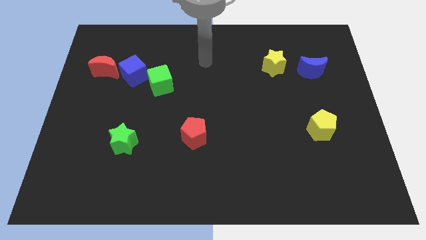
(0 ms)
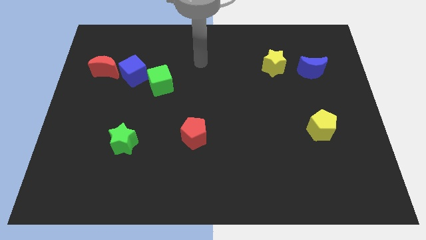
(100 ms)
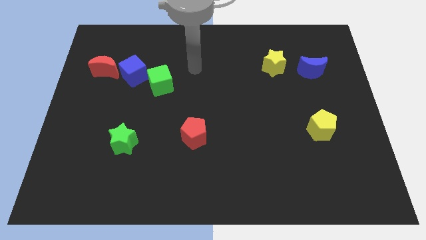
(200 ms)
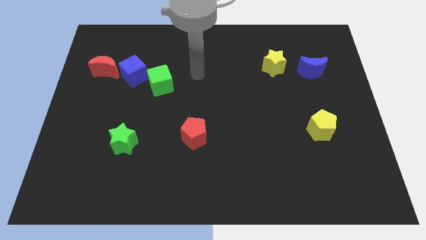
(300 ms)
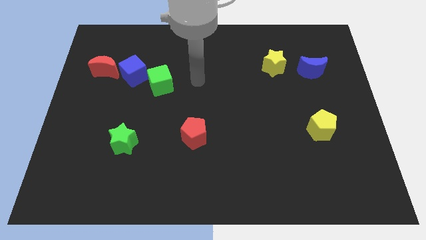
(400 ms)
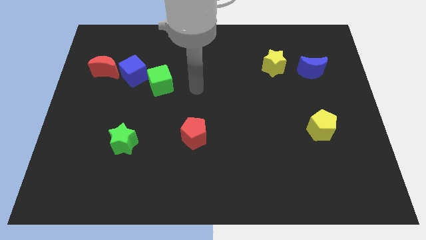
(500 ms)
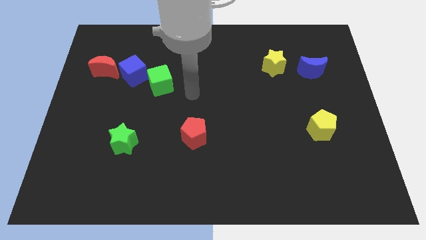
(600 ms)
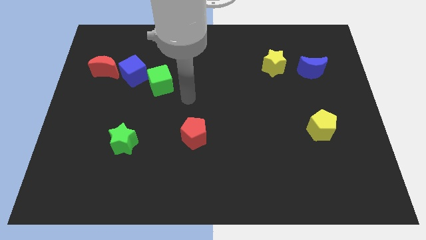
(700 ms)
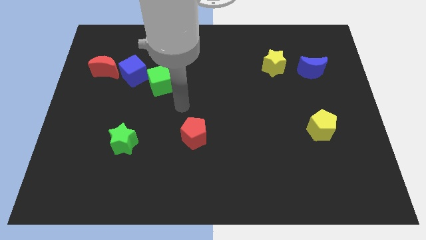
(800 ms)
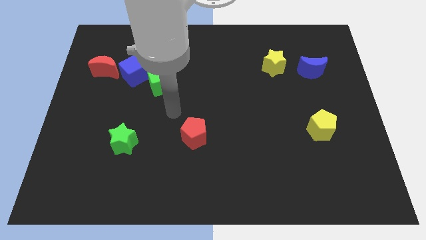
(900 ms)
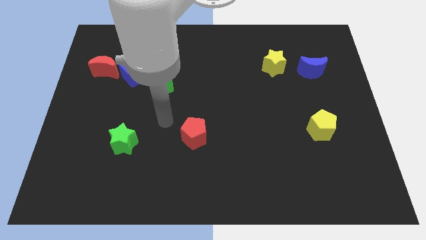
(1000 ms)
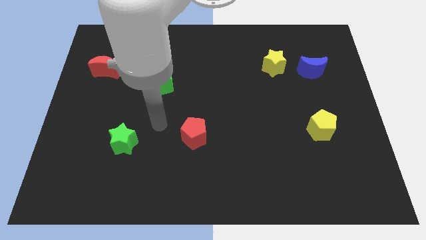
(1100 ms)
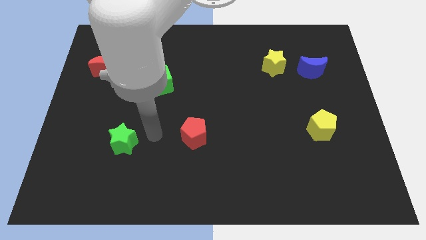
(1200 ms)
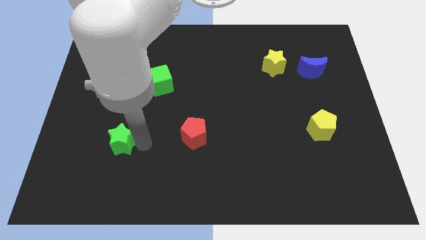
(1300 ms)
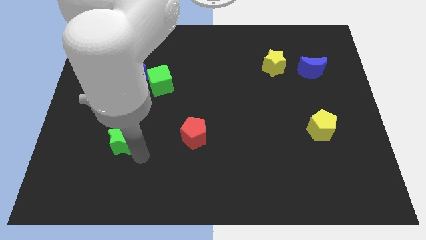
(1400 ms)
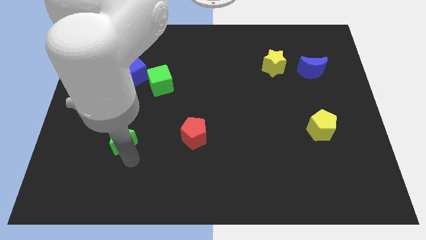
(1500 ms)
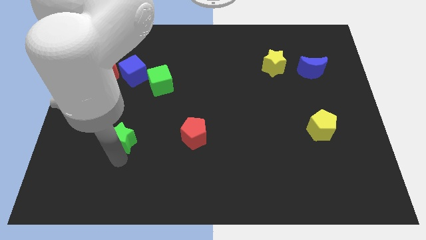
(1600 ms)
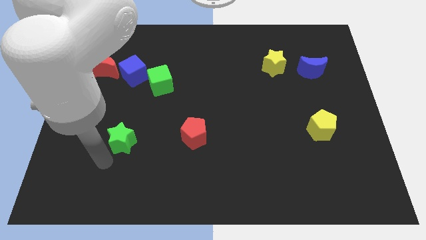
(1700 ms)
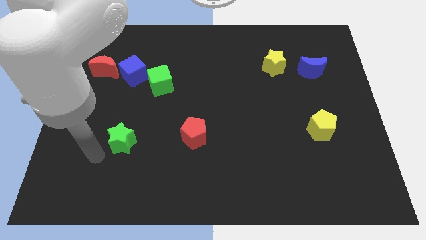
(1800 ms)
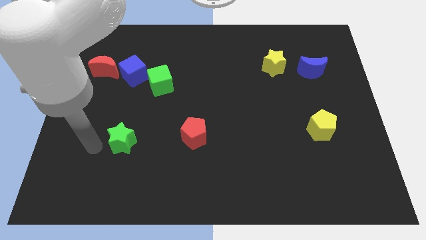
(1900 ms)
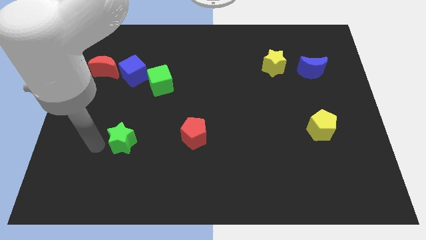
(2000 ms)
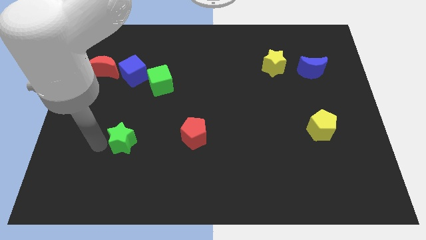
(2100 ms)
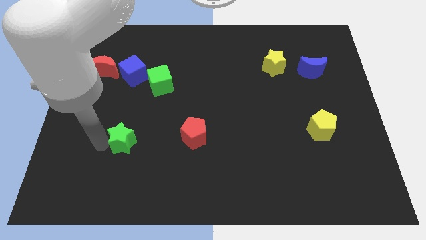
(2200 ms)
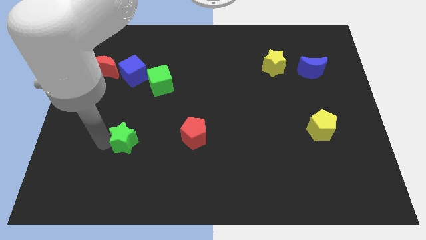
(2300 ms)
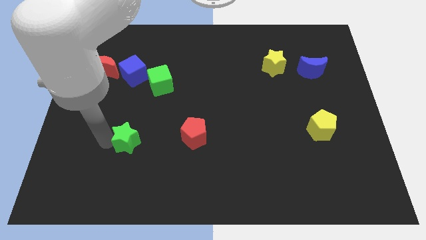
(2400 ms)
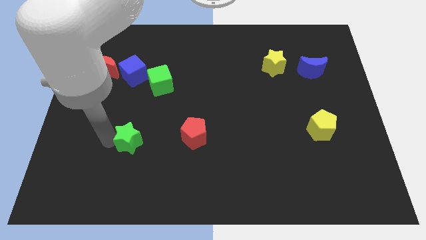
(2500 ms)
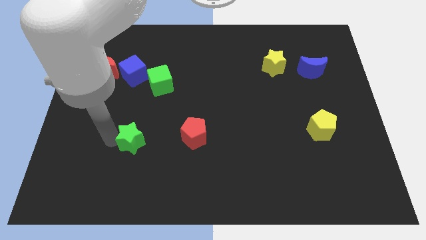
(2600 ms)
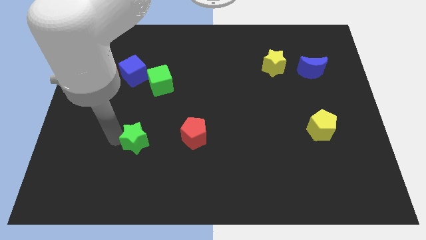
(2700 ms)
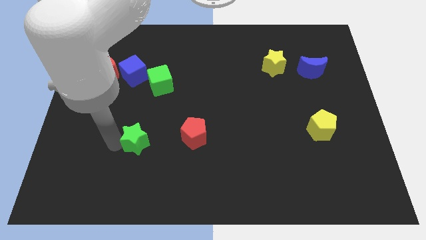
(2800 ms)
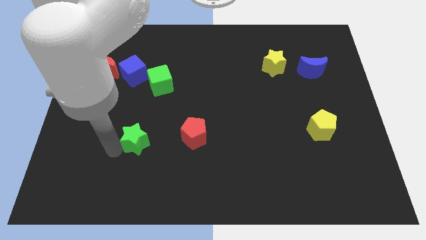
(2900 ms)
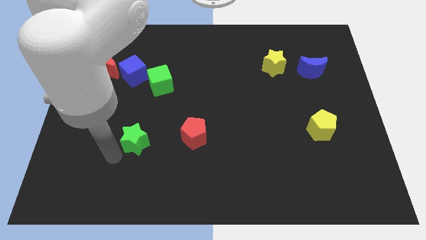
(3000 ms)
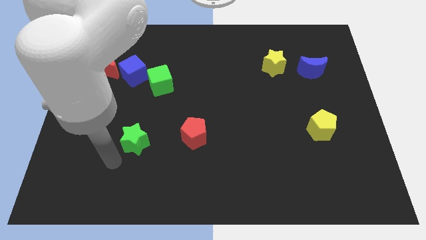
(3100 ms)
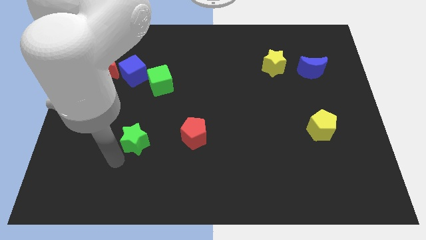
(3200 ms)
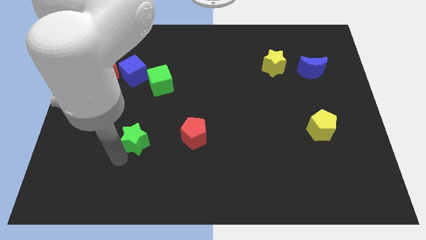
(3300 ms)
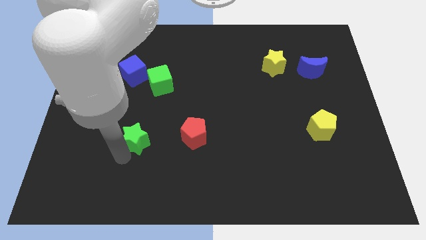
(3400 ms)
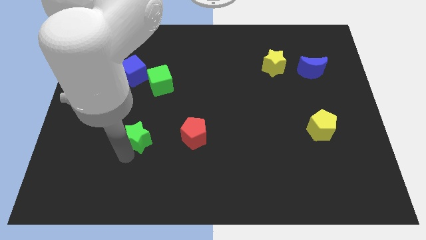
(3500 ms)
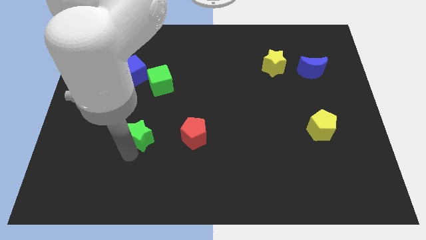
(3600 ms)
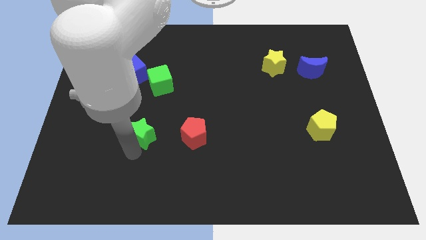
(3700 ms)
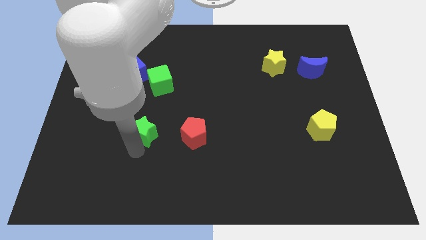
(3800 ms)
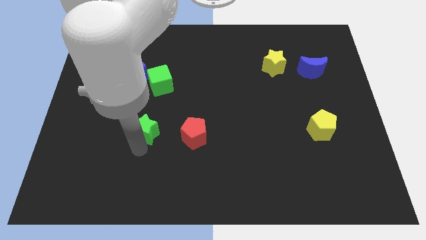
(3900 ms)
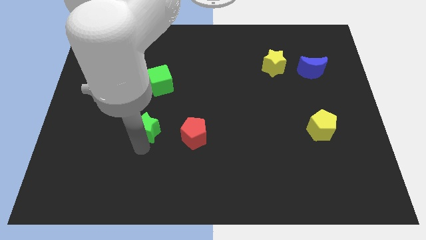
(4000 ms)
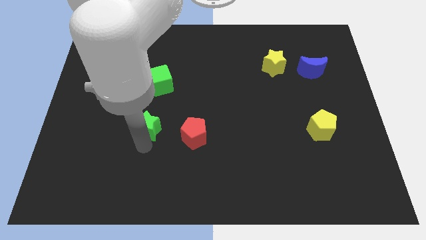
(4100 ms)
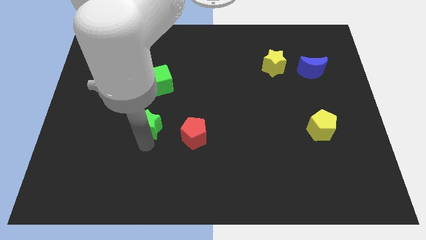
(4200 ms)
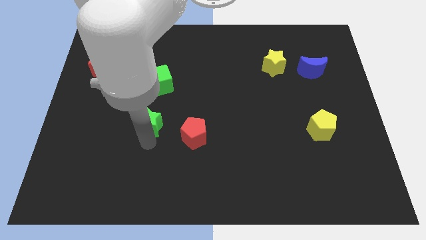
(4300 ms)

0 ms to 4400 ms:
slide the green star upwards and right diagonally somewhat

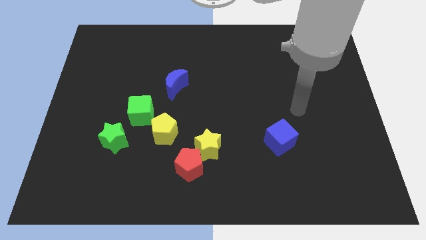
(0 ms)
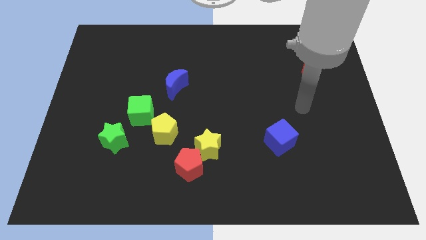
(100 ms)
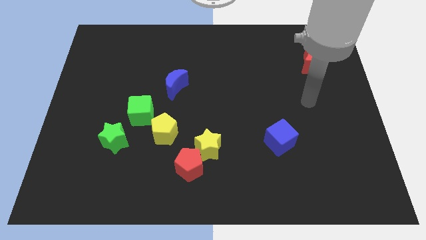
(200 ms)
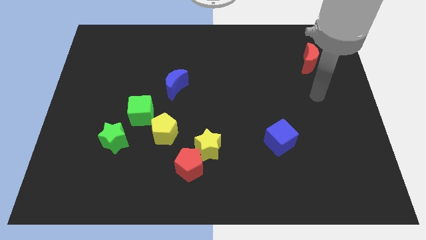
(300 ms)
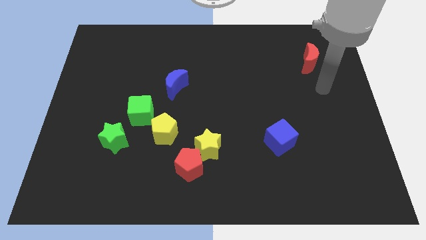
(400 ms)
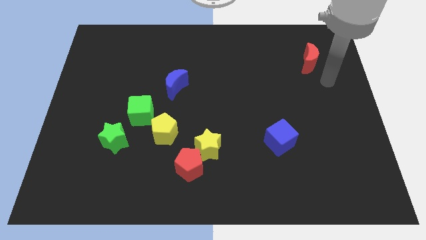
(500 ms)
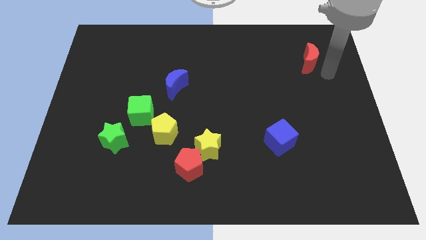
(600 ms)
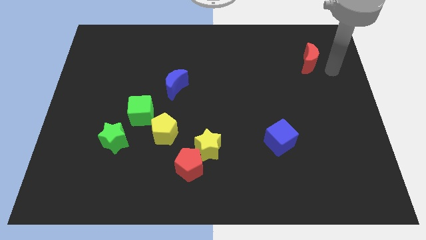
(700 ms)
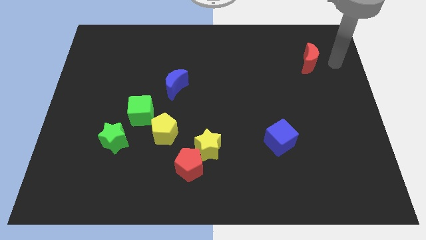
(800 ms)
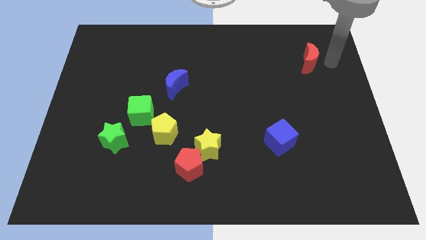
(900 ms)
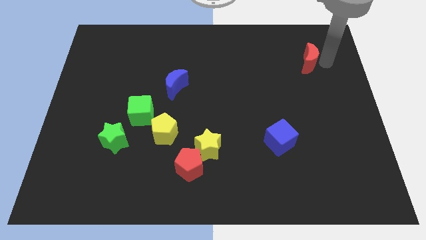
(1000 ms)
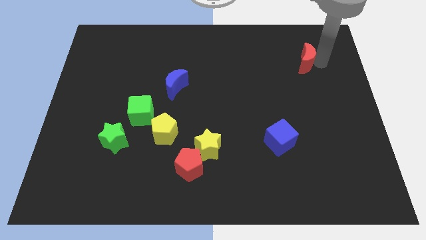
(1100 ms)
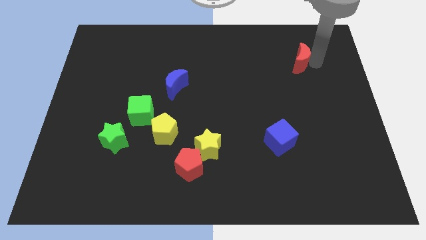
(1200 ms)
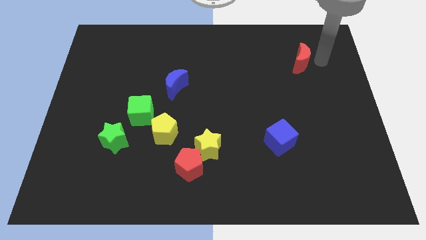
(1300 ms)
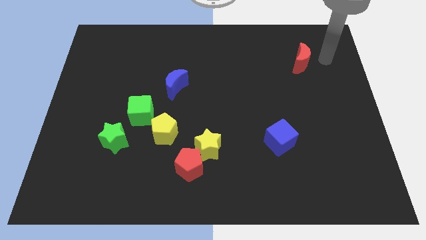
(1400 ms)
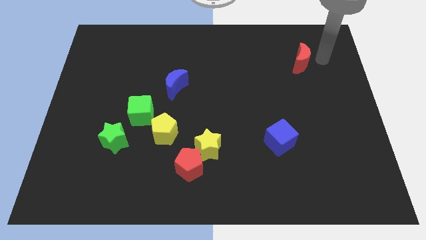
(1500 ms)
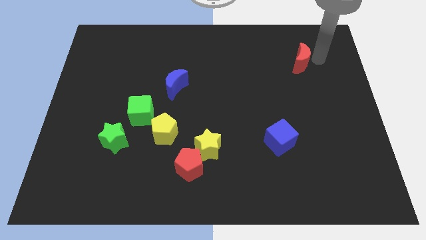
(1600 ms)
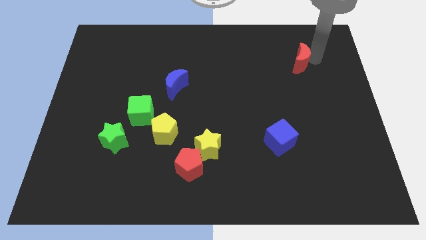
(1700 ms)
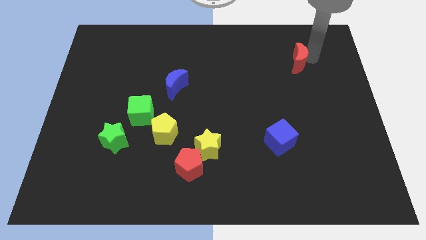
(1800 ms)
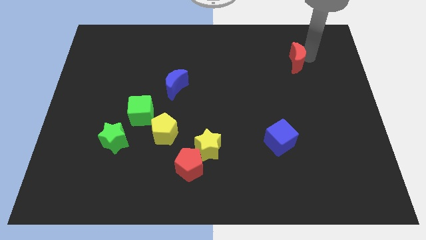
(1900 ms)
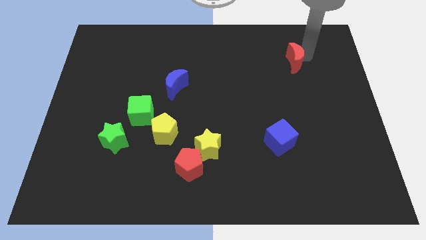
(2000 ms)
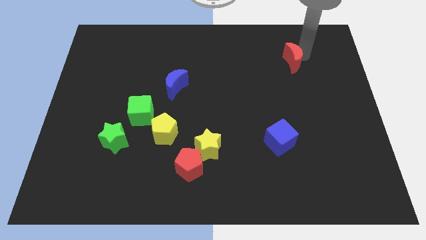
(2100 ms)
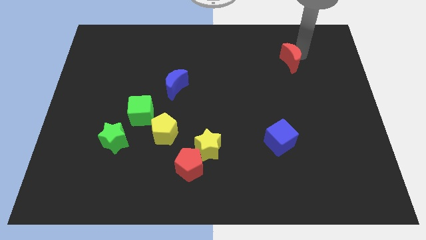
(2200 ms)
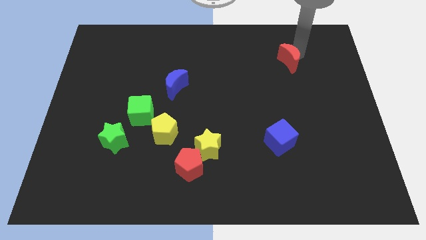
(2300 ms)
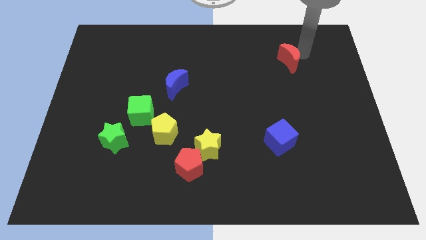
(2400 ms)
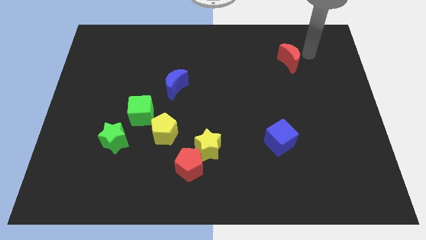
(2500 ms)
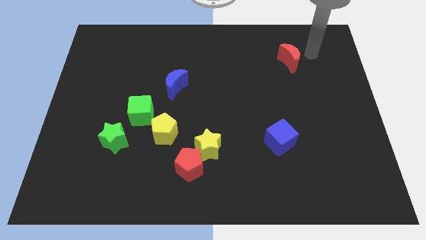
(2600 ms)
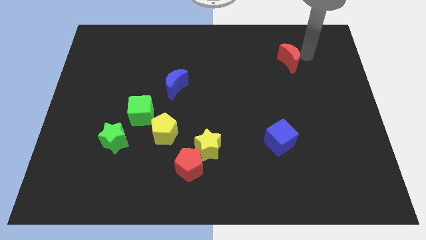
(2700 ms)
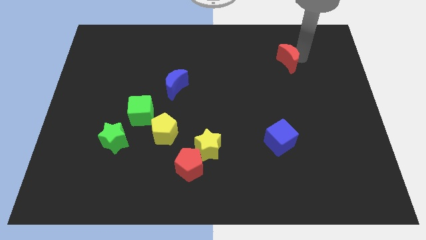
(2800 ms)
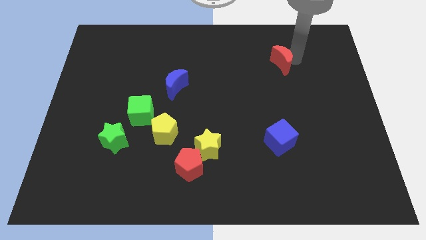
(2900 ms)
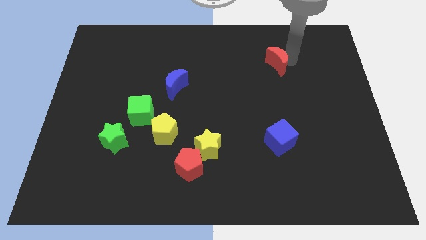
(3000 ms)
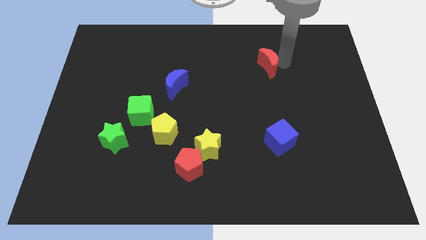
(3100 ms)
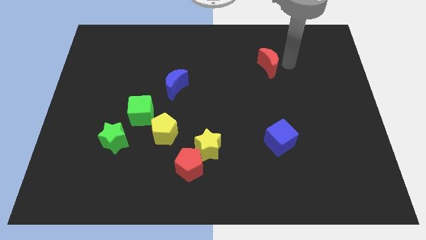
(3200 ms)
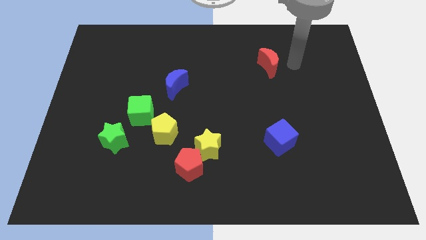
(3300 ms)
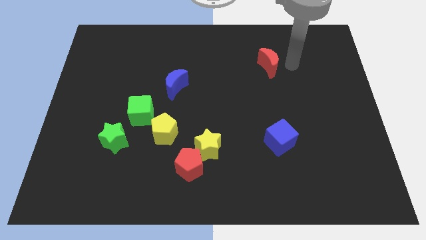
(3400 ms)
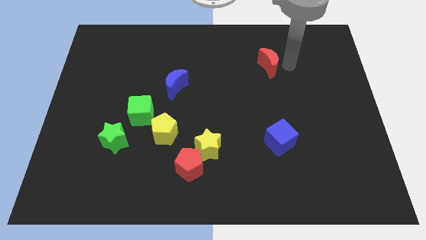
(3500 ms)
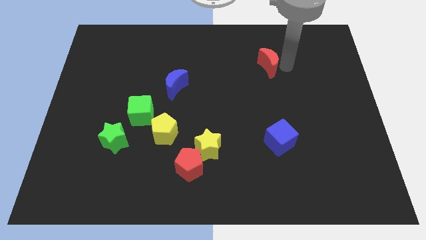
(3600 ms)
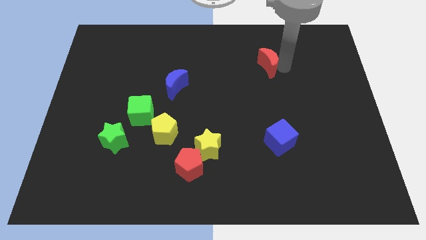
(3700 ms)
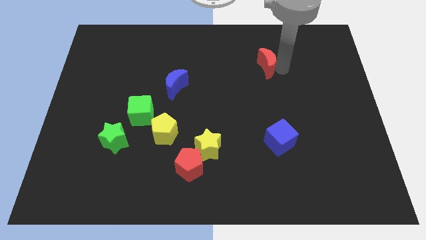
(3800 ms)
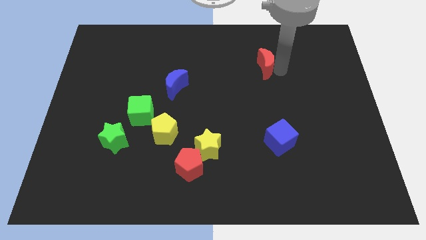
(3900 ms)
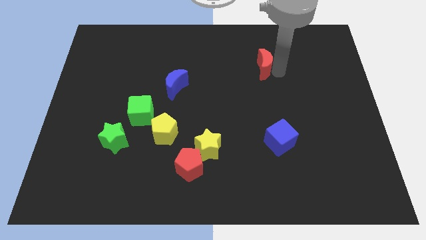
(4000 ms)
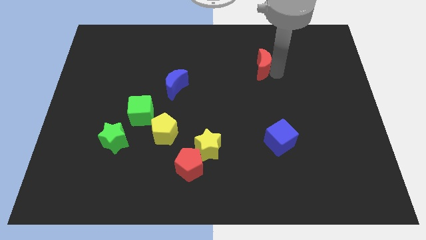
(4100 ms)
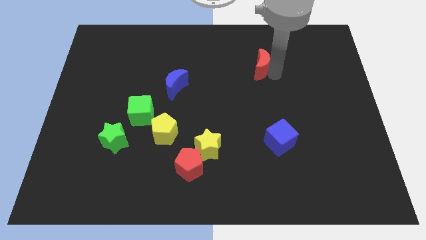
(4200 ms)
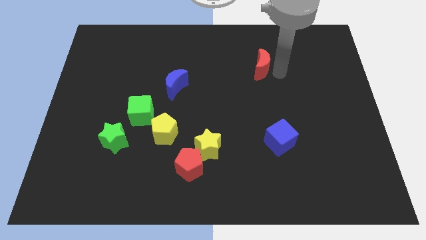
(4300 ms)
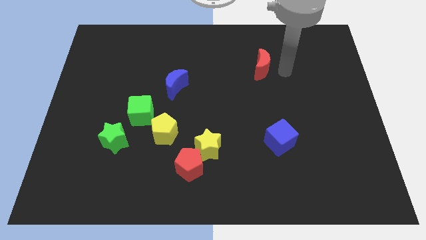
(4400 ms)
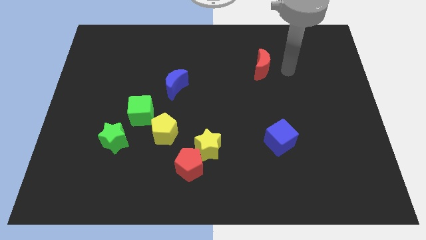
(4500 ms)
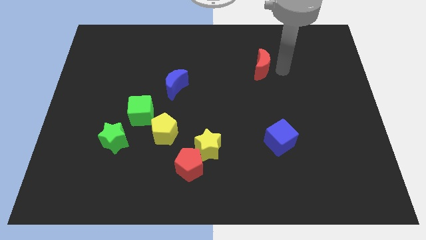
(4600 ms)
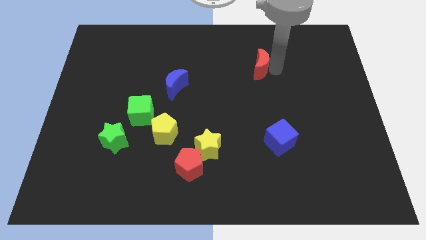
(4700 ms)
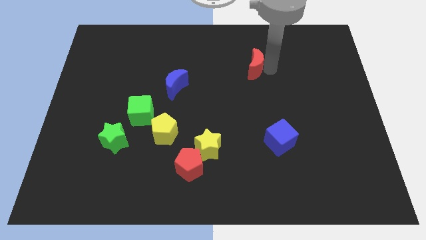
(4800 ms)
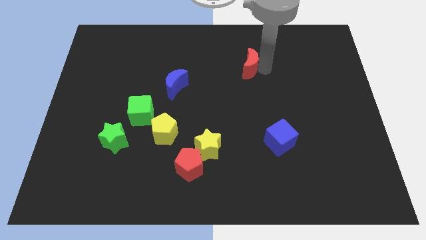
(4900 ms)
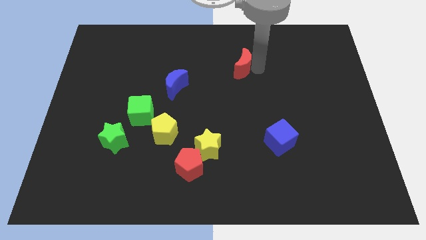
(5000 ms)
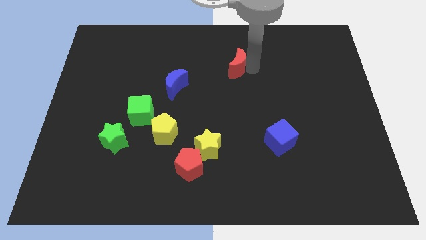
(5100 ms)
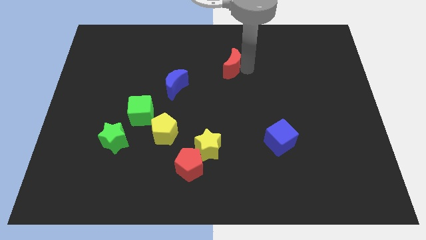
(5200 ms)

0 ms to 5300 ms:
push the red moon left
